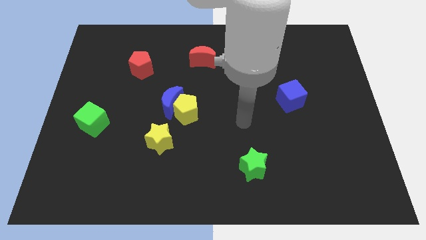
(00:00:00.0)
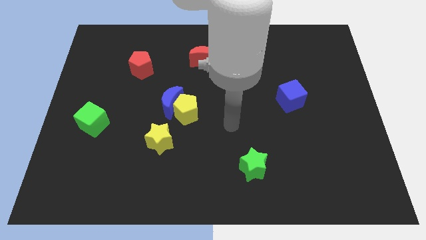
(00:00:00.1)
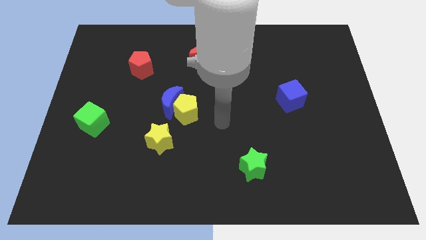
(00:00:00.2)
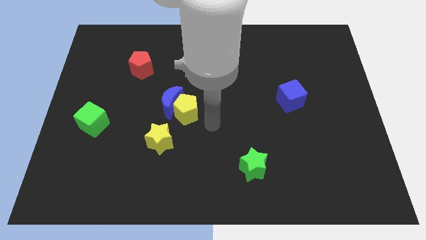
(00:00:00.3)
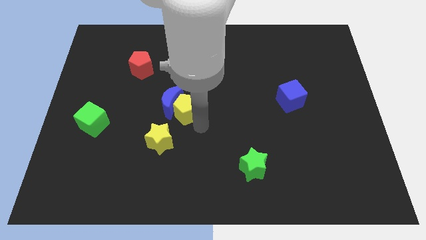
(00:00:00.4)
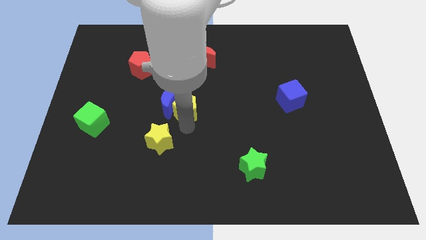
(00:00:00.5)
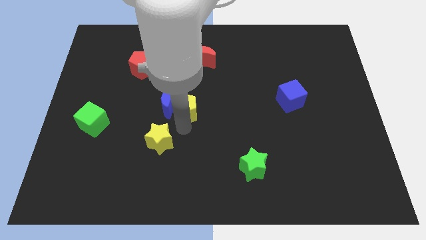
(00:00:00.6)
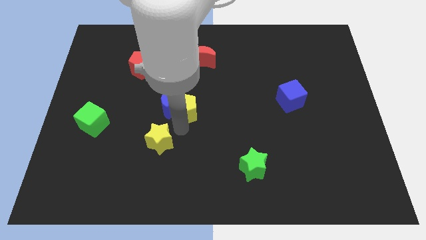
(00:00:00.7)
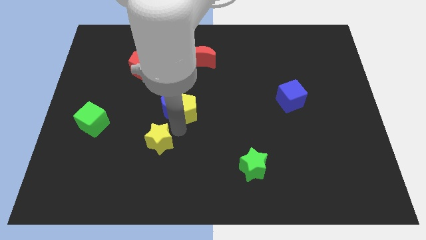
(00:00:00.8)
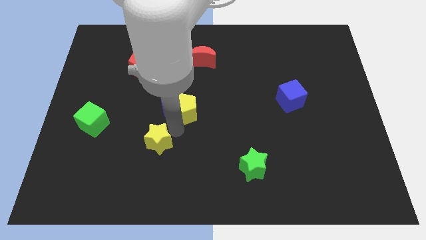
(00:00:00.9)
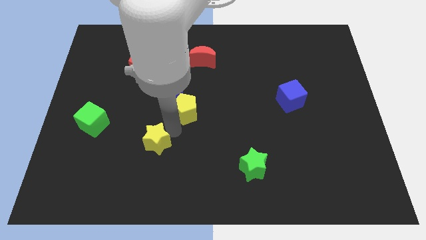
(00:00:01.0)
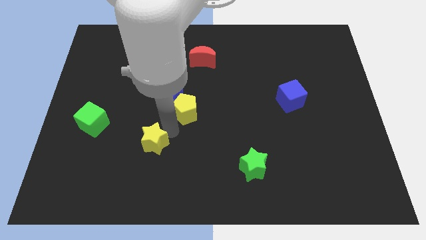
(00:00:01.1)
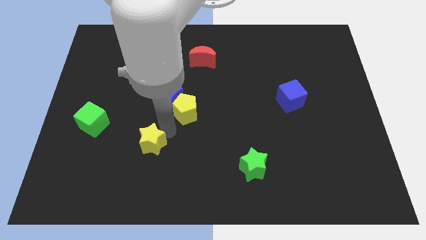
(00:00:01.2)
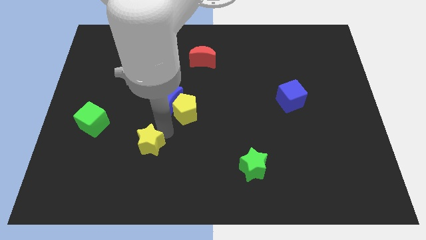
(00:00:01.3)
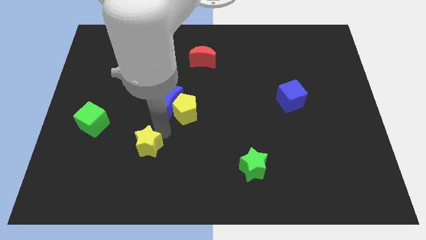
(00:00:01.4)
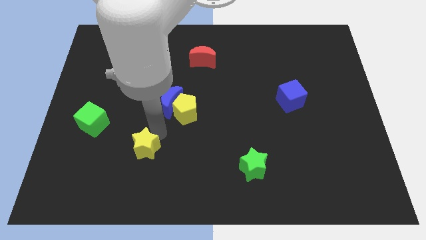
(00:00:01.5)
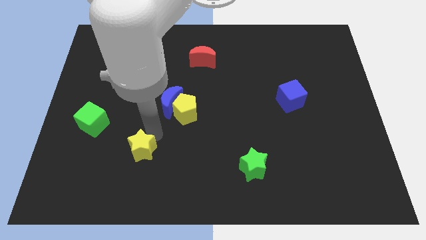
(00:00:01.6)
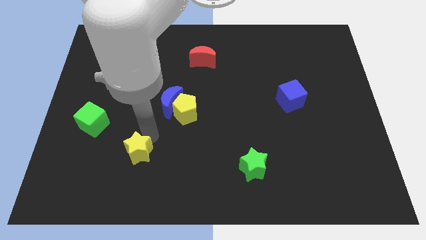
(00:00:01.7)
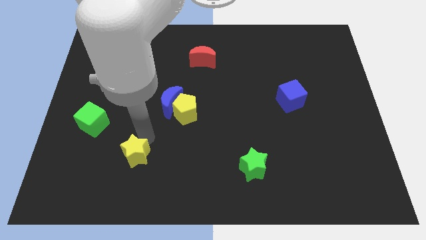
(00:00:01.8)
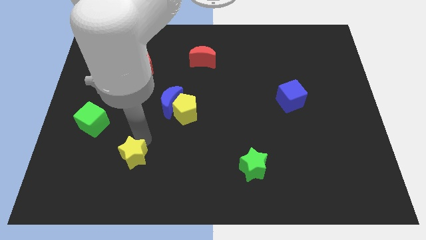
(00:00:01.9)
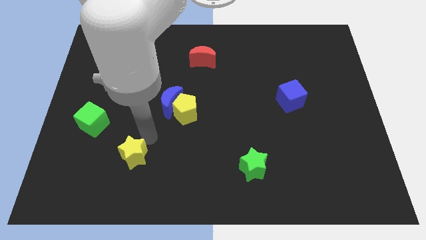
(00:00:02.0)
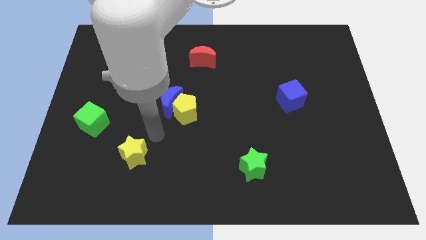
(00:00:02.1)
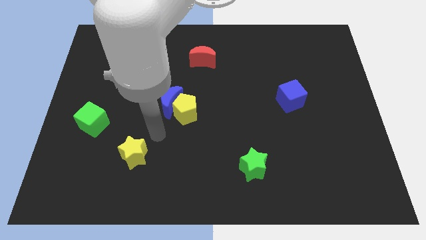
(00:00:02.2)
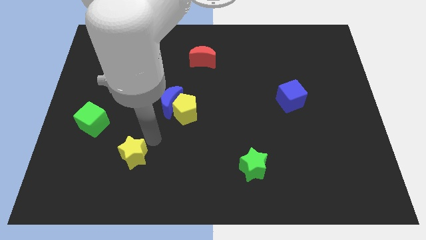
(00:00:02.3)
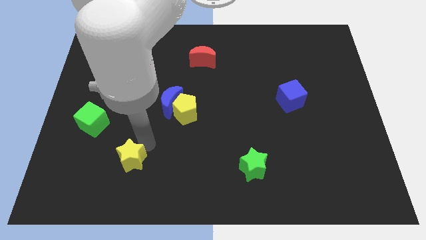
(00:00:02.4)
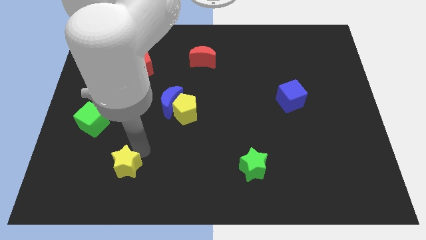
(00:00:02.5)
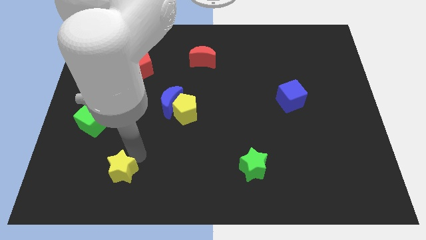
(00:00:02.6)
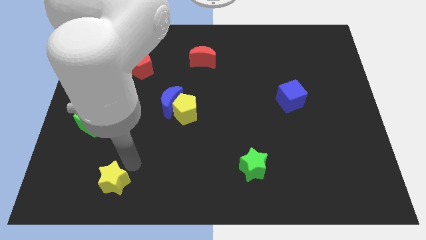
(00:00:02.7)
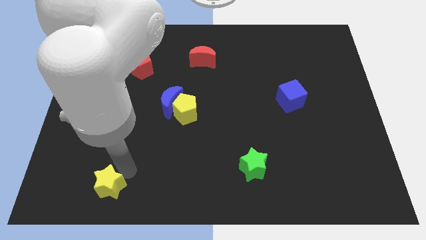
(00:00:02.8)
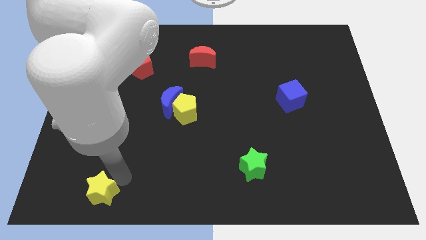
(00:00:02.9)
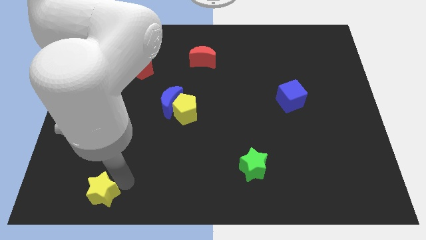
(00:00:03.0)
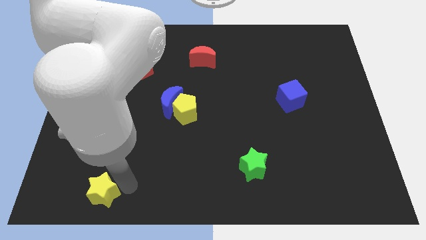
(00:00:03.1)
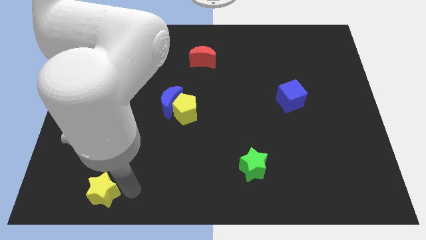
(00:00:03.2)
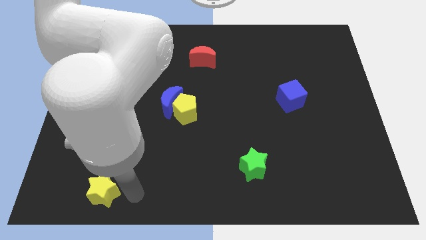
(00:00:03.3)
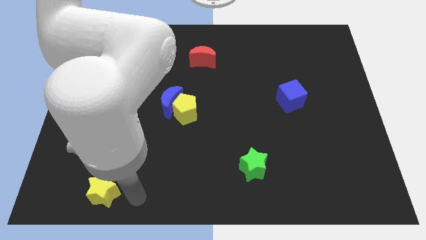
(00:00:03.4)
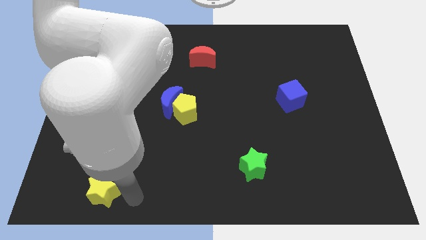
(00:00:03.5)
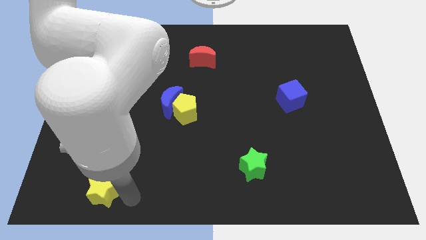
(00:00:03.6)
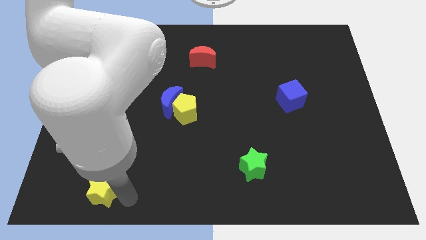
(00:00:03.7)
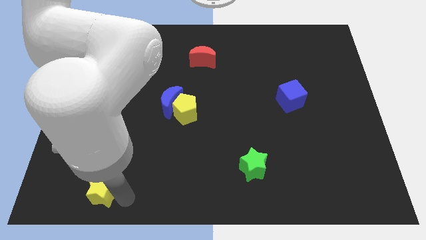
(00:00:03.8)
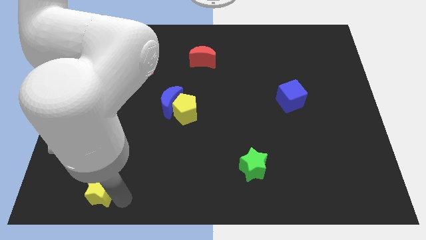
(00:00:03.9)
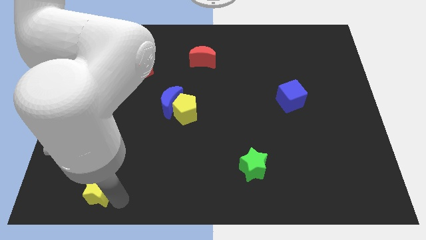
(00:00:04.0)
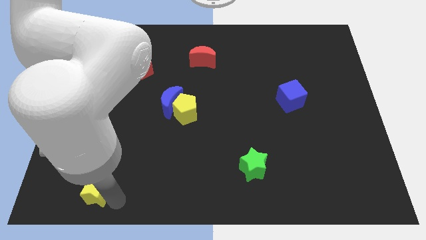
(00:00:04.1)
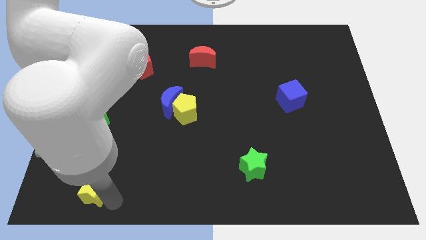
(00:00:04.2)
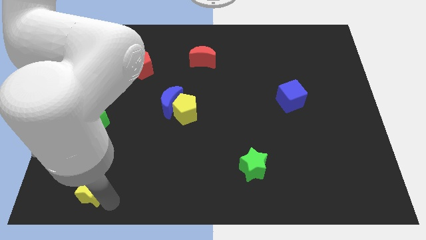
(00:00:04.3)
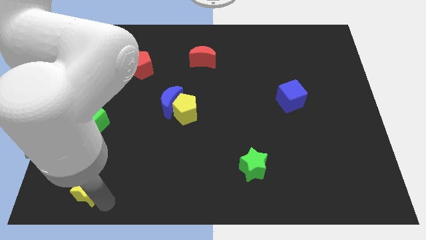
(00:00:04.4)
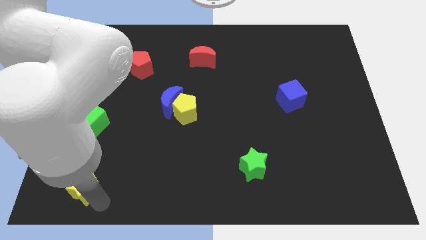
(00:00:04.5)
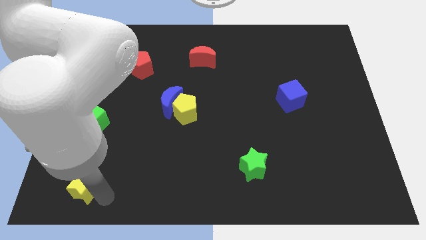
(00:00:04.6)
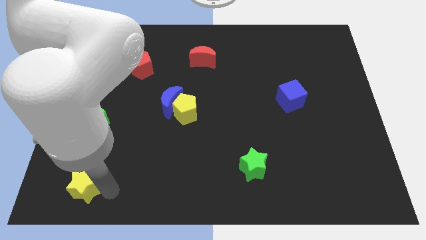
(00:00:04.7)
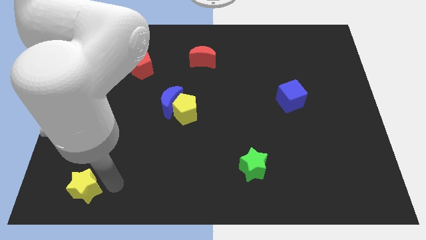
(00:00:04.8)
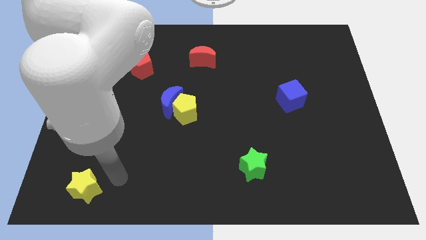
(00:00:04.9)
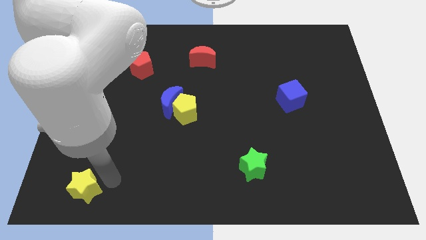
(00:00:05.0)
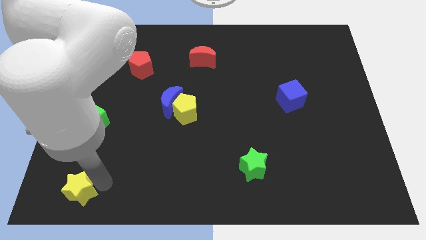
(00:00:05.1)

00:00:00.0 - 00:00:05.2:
put the yellow star to the lower left corner

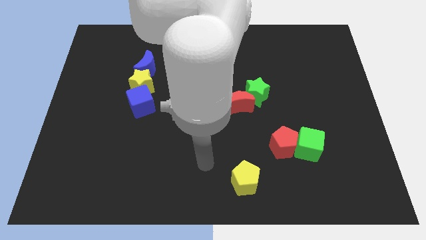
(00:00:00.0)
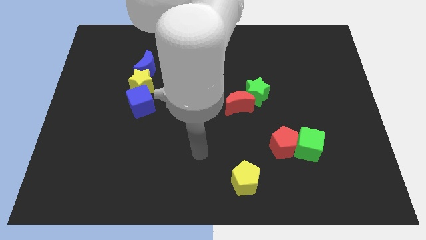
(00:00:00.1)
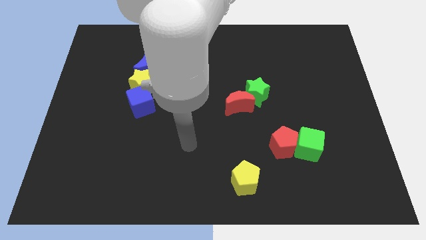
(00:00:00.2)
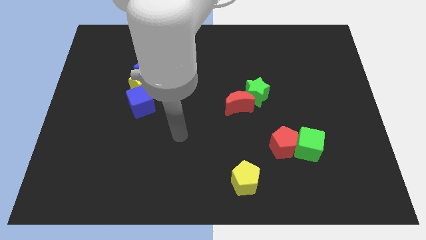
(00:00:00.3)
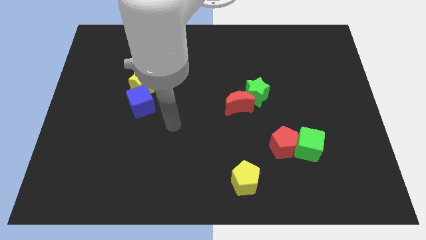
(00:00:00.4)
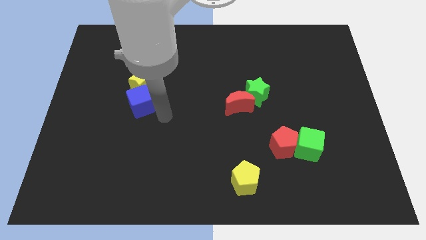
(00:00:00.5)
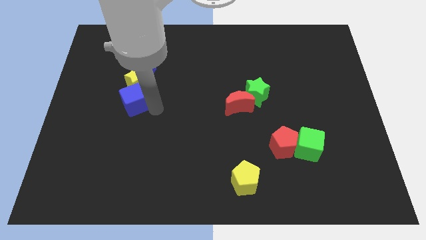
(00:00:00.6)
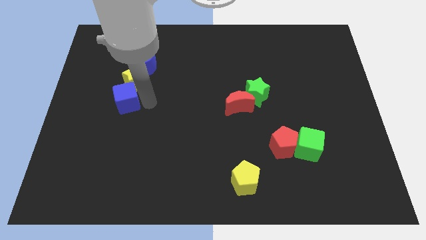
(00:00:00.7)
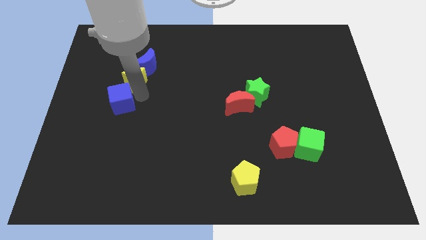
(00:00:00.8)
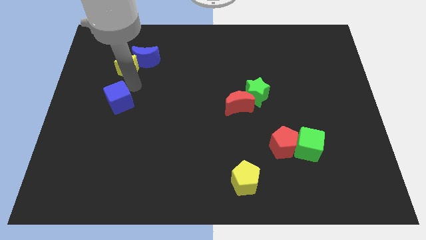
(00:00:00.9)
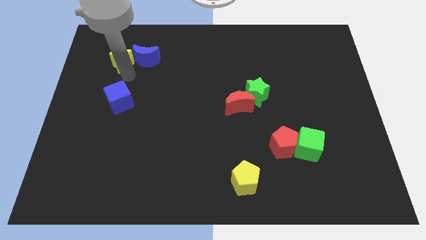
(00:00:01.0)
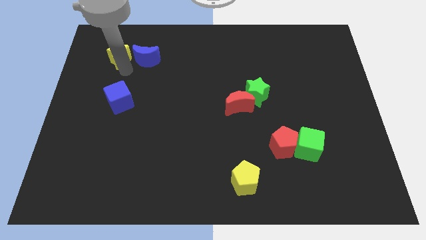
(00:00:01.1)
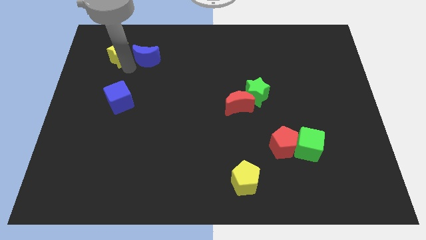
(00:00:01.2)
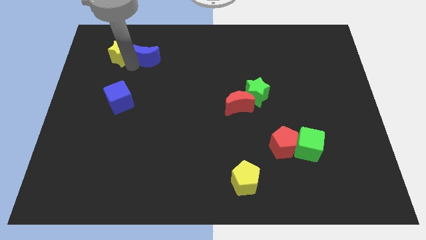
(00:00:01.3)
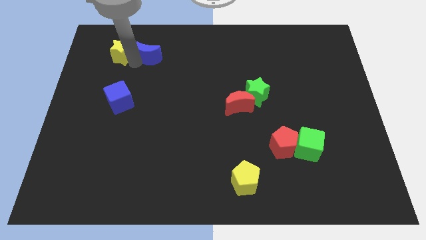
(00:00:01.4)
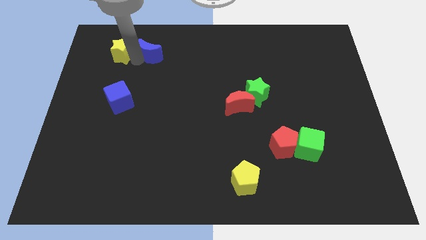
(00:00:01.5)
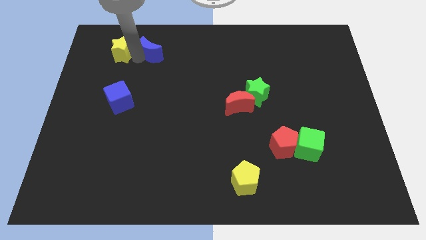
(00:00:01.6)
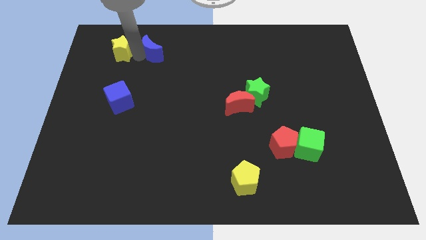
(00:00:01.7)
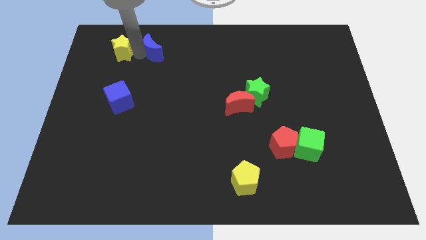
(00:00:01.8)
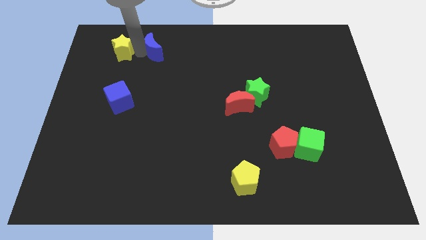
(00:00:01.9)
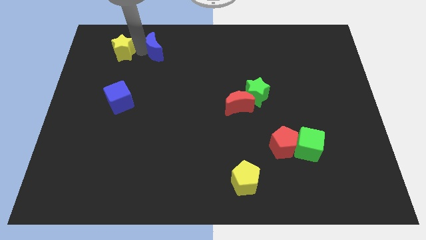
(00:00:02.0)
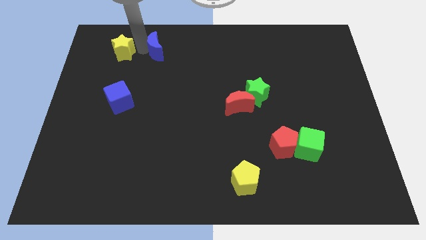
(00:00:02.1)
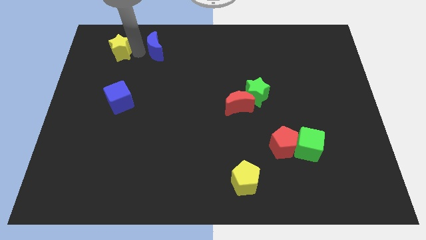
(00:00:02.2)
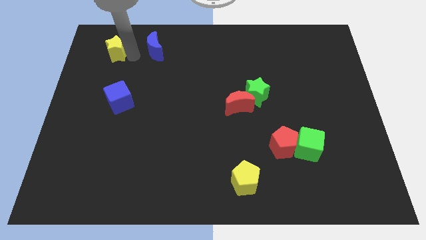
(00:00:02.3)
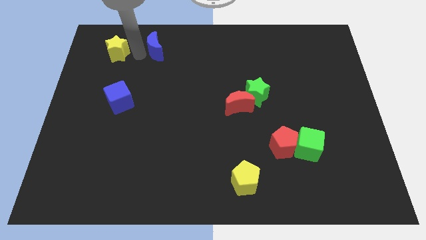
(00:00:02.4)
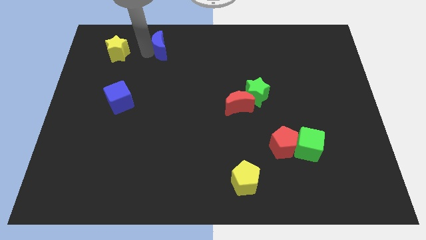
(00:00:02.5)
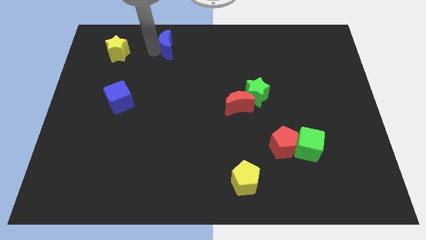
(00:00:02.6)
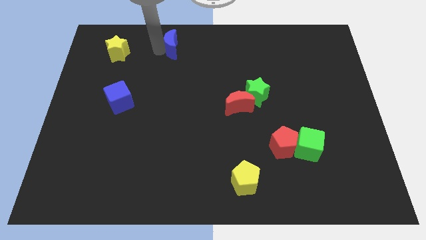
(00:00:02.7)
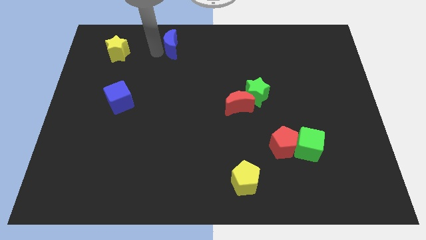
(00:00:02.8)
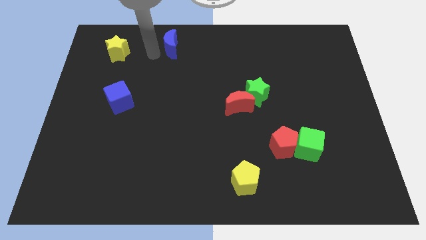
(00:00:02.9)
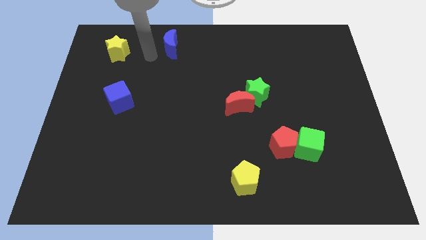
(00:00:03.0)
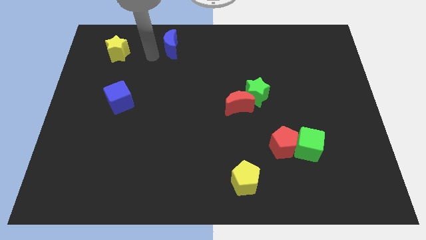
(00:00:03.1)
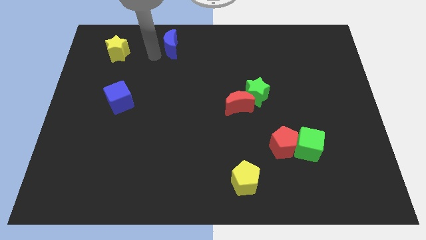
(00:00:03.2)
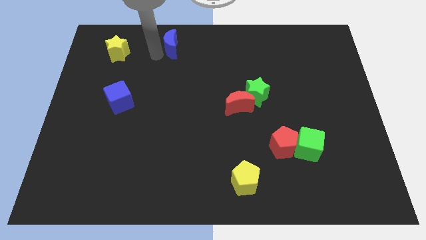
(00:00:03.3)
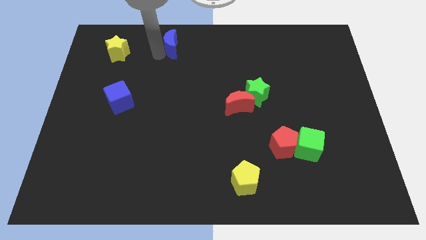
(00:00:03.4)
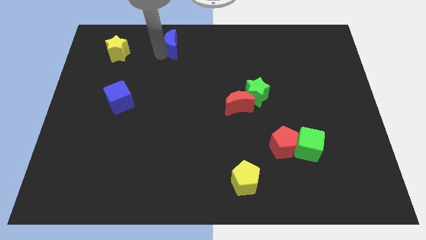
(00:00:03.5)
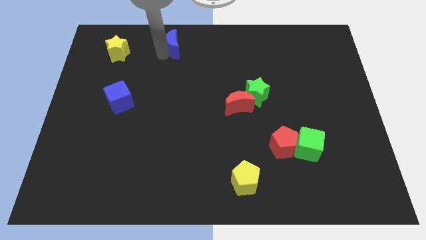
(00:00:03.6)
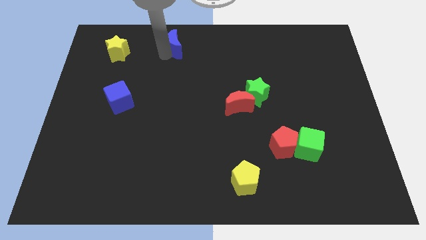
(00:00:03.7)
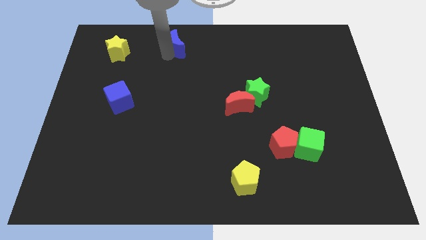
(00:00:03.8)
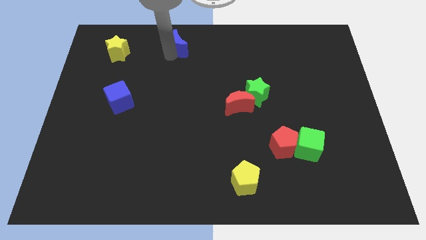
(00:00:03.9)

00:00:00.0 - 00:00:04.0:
move the blue moon to the towards your base
